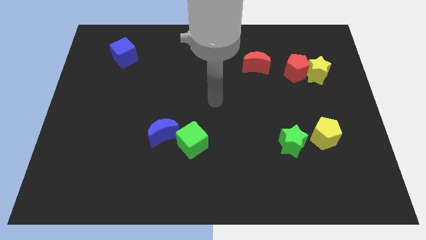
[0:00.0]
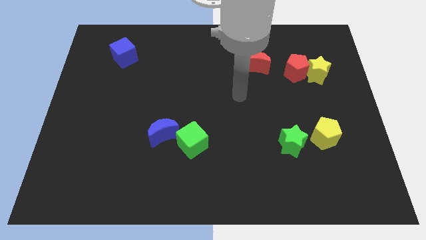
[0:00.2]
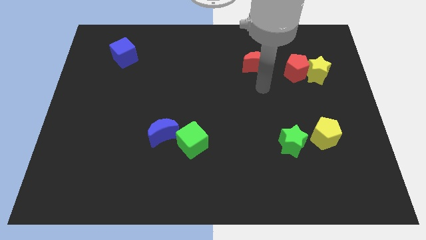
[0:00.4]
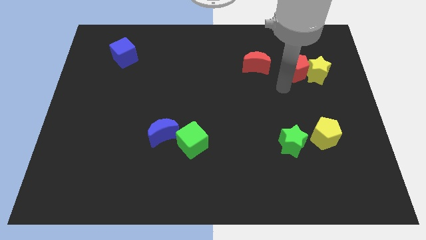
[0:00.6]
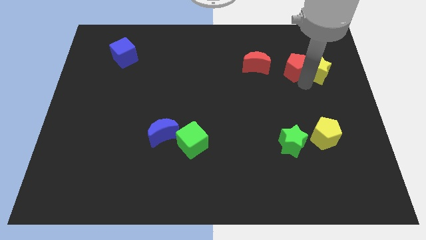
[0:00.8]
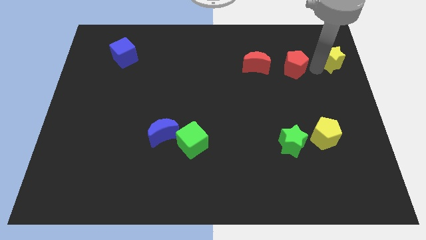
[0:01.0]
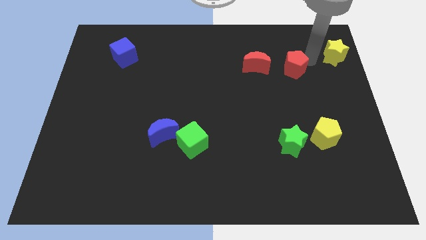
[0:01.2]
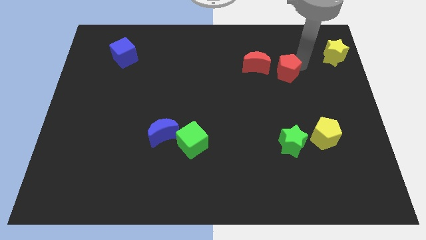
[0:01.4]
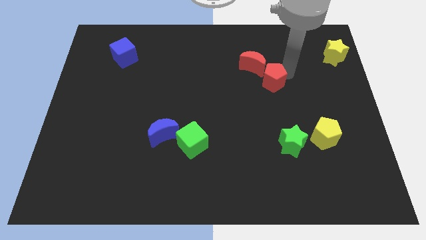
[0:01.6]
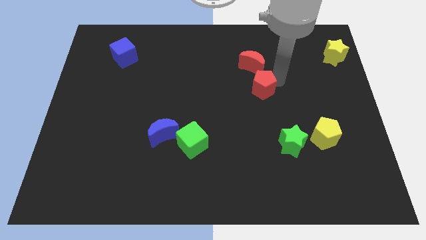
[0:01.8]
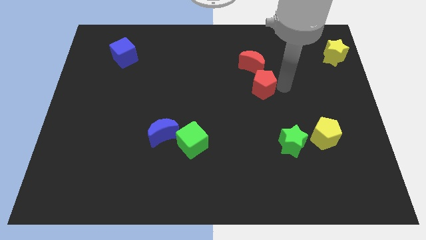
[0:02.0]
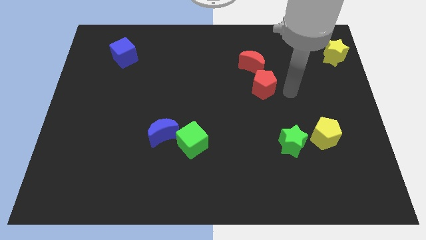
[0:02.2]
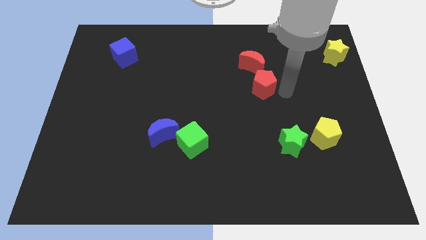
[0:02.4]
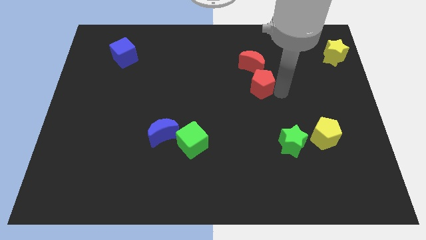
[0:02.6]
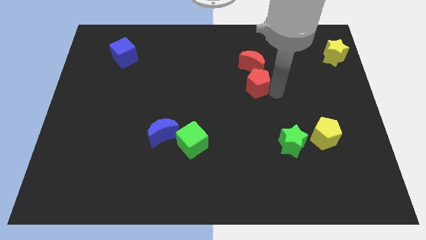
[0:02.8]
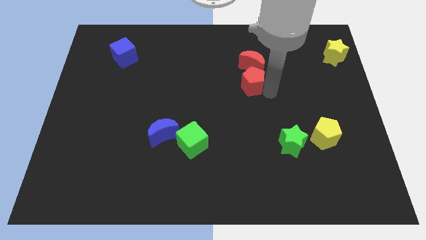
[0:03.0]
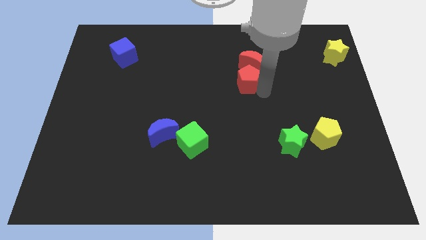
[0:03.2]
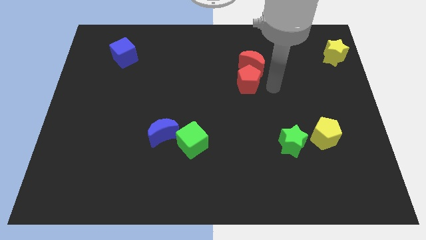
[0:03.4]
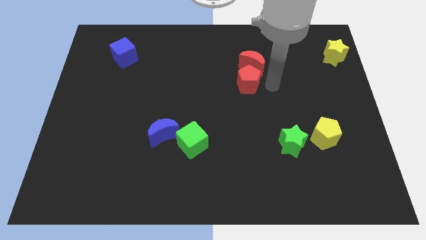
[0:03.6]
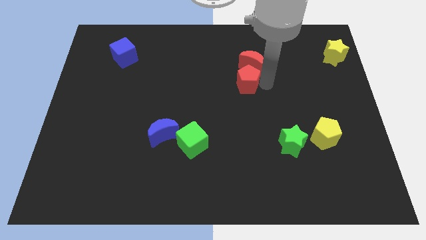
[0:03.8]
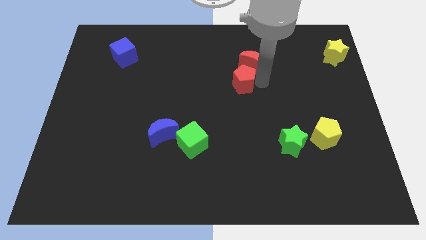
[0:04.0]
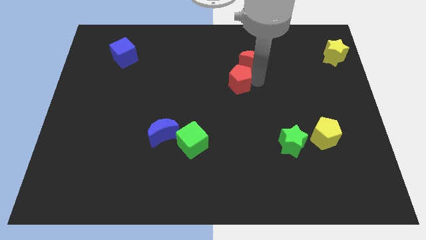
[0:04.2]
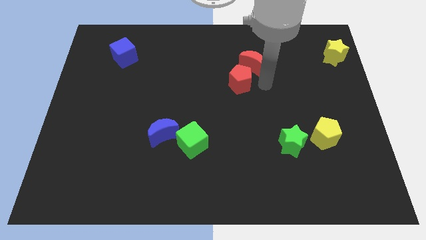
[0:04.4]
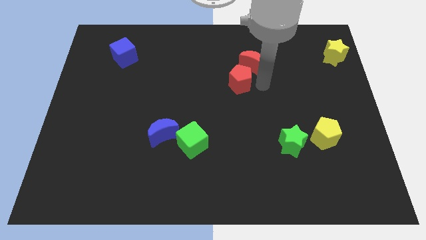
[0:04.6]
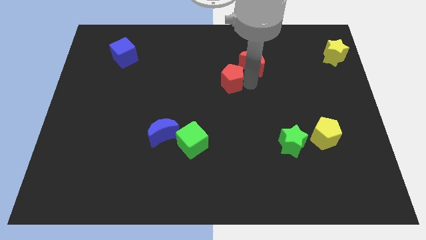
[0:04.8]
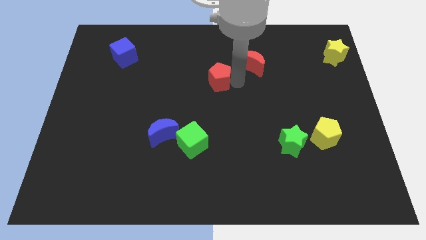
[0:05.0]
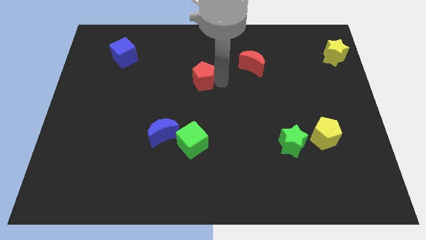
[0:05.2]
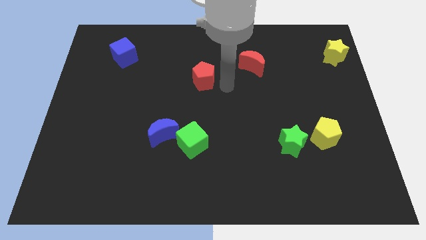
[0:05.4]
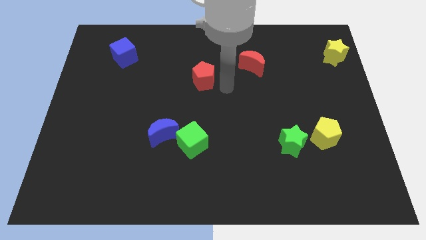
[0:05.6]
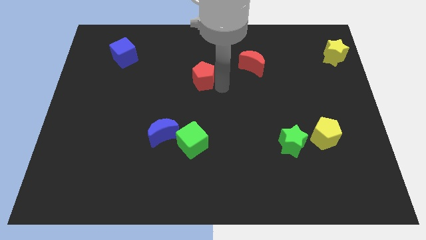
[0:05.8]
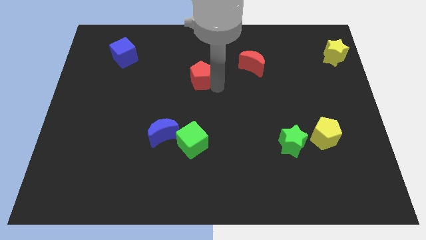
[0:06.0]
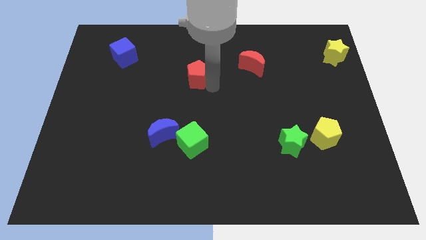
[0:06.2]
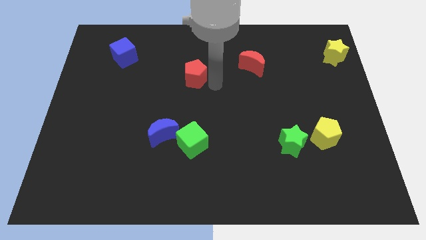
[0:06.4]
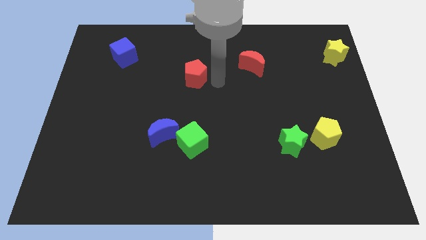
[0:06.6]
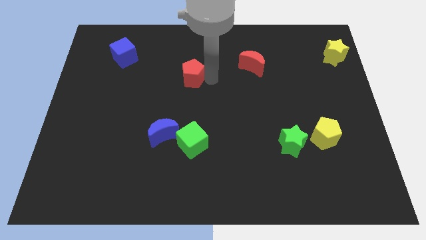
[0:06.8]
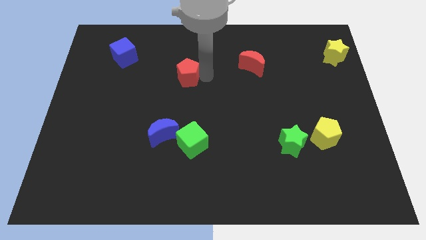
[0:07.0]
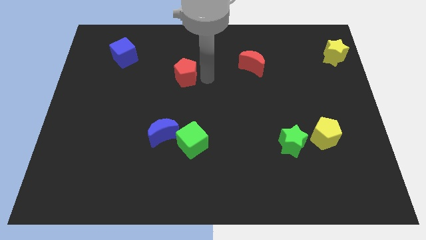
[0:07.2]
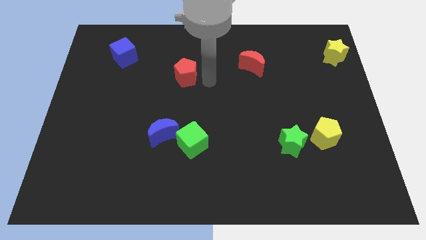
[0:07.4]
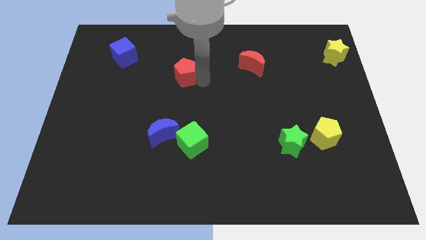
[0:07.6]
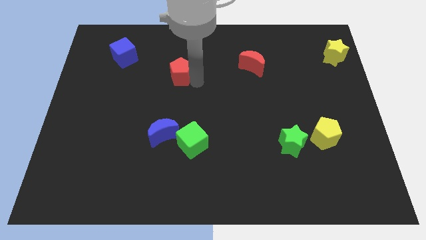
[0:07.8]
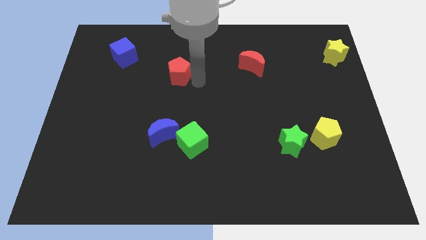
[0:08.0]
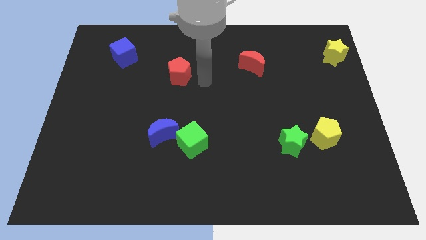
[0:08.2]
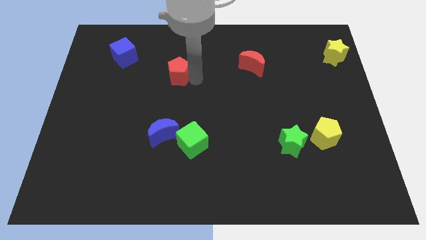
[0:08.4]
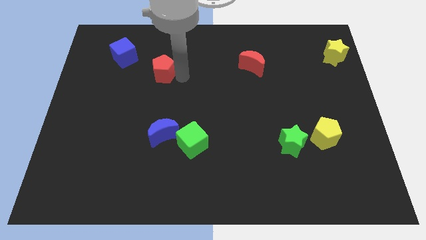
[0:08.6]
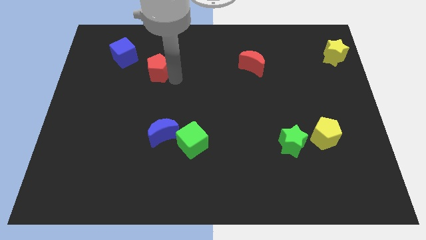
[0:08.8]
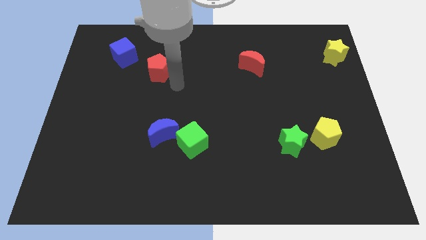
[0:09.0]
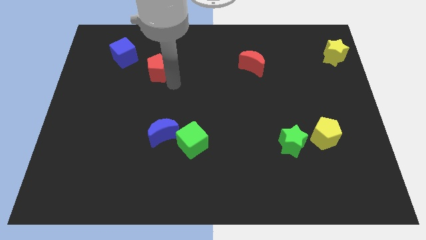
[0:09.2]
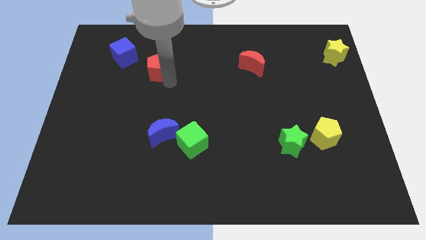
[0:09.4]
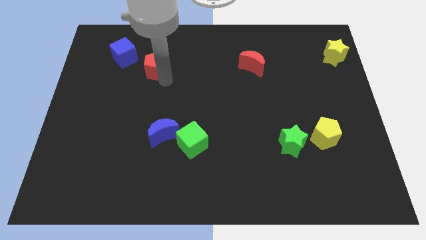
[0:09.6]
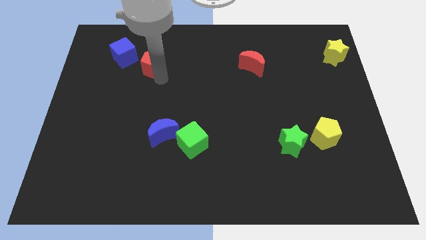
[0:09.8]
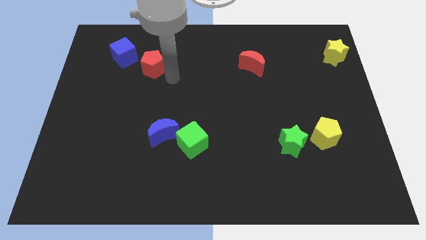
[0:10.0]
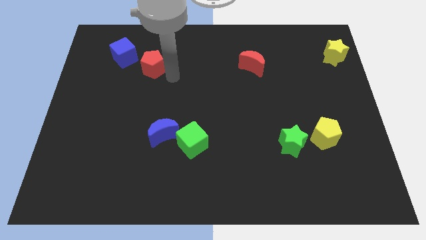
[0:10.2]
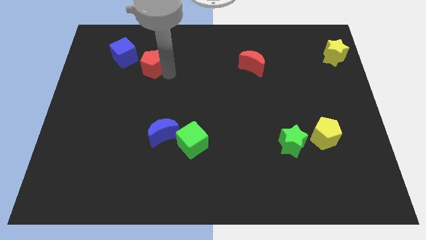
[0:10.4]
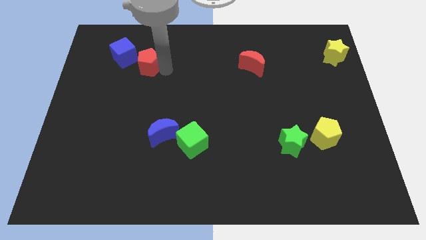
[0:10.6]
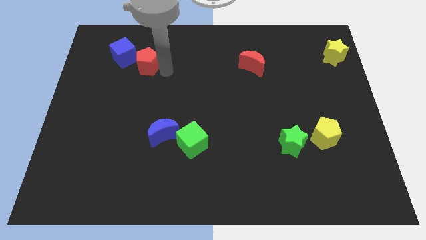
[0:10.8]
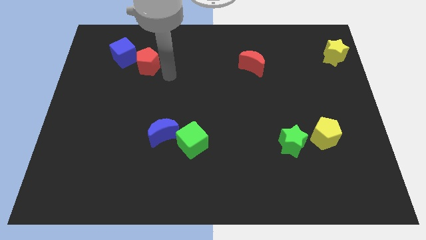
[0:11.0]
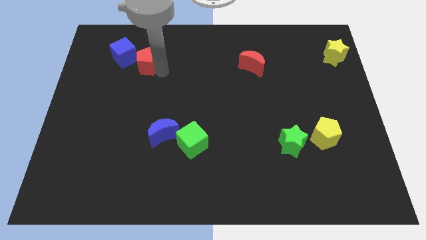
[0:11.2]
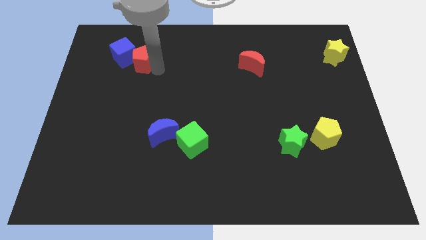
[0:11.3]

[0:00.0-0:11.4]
move the red pentagon close to the blue cube

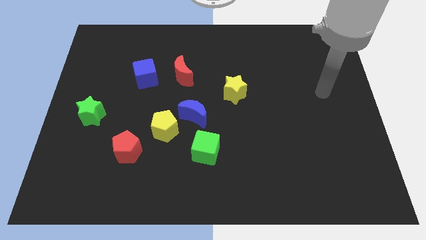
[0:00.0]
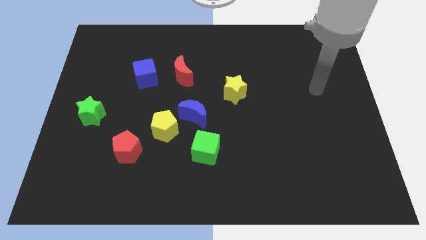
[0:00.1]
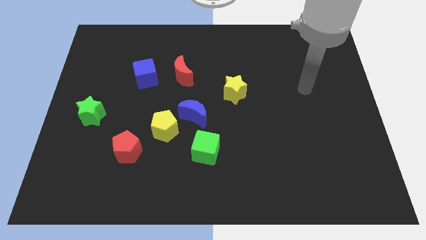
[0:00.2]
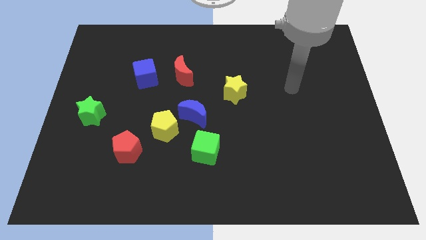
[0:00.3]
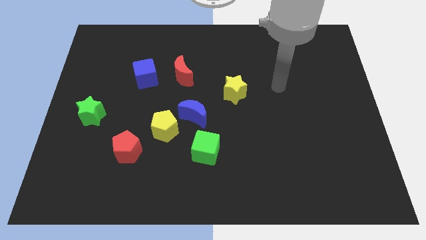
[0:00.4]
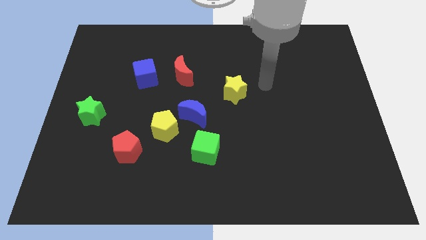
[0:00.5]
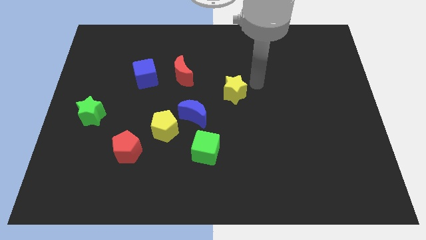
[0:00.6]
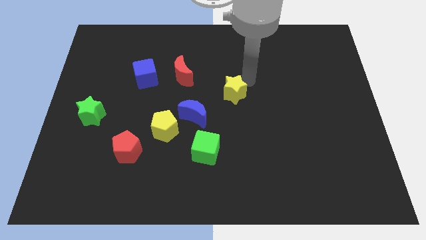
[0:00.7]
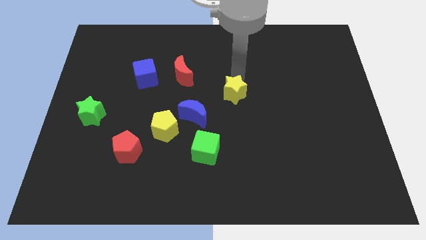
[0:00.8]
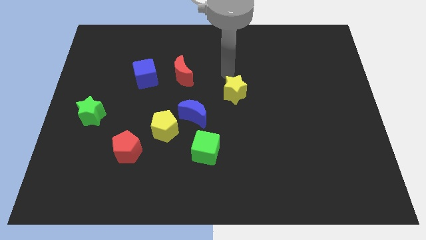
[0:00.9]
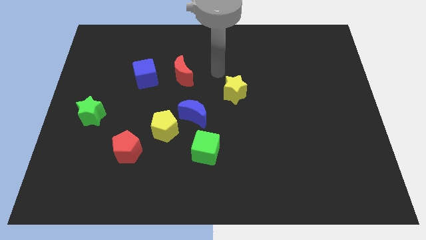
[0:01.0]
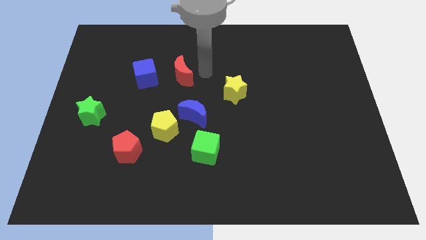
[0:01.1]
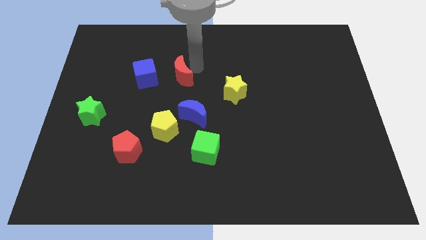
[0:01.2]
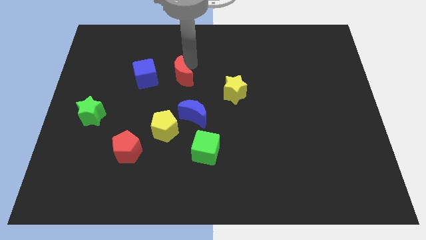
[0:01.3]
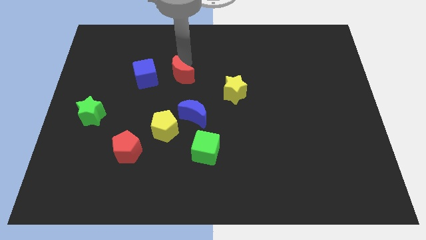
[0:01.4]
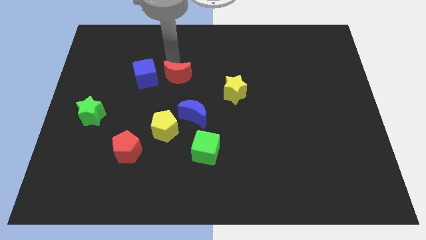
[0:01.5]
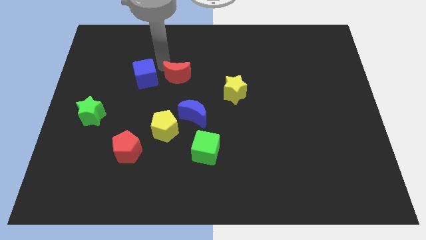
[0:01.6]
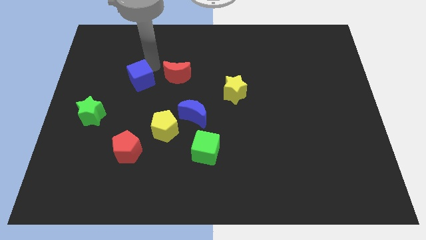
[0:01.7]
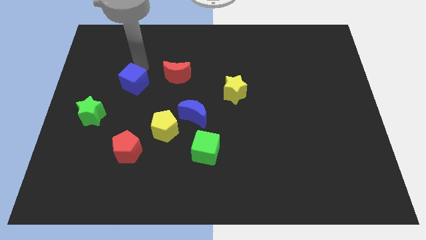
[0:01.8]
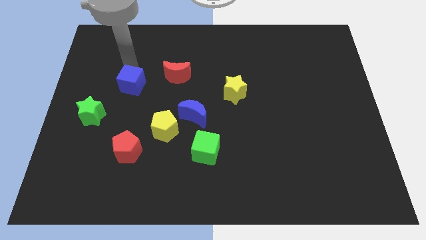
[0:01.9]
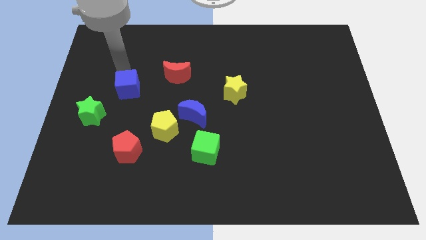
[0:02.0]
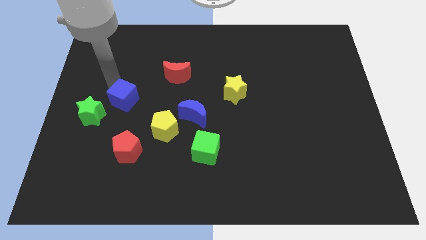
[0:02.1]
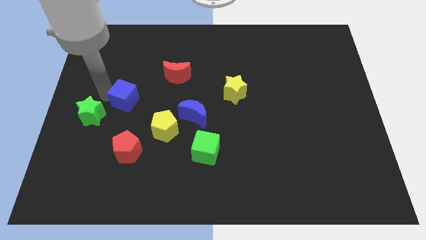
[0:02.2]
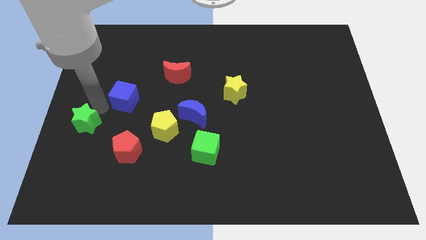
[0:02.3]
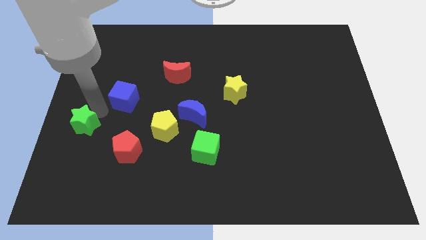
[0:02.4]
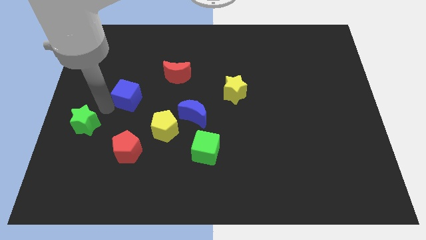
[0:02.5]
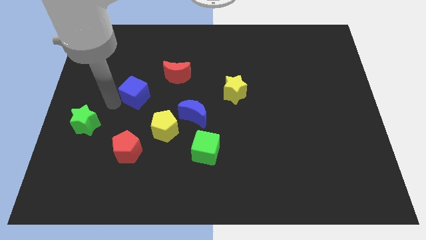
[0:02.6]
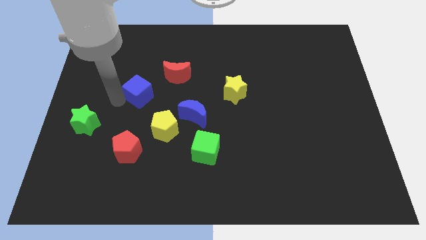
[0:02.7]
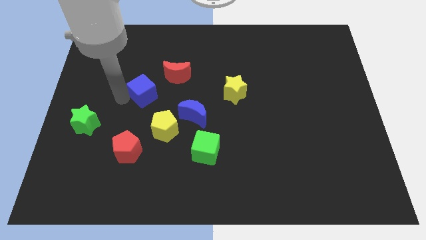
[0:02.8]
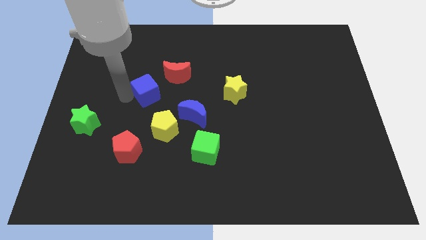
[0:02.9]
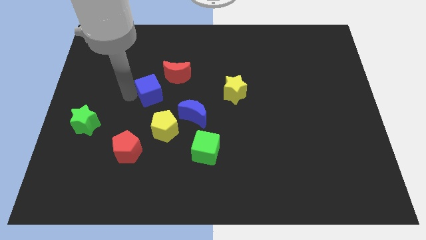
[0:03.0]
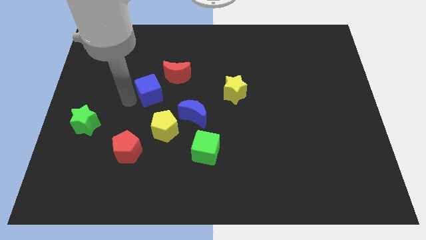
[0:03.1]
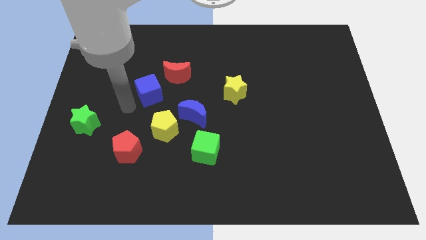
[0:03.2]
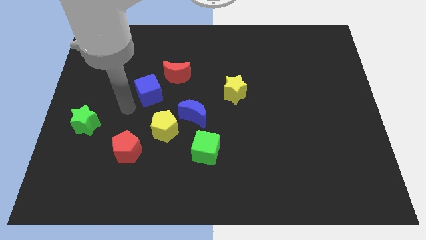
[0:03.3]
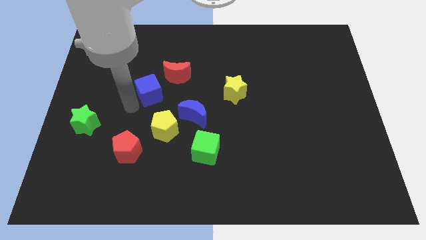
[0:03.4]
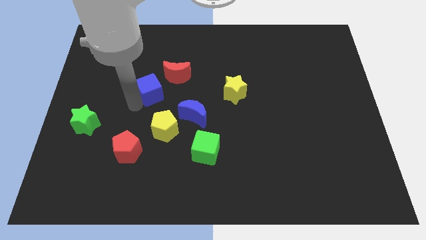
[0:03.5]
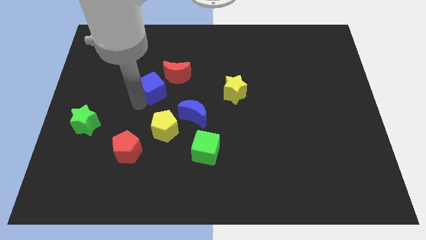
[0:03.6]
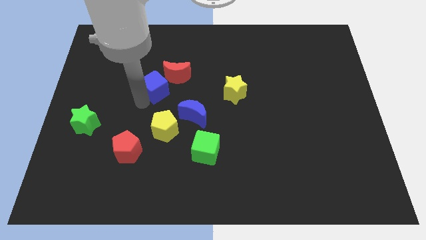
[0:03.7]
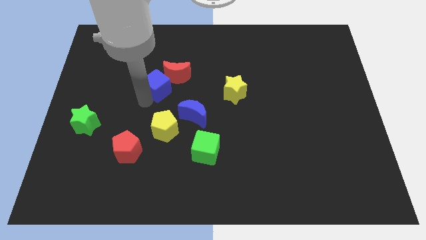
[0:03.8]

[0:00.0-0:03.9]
put the blue cube towards the red moon
